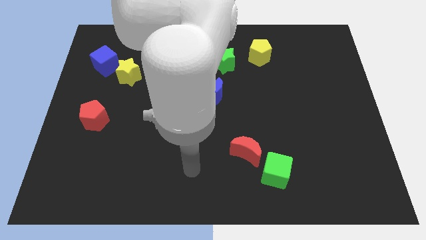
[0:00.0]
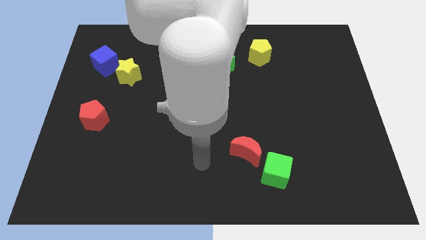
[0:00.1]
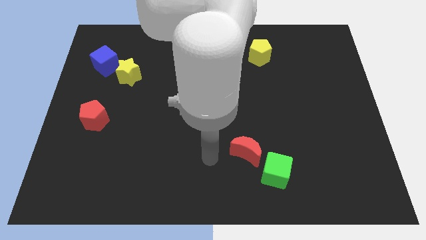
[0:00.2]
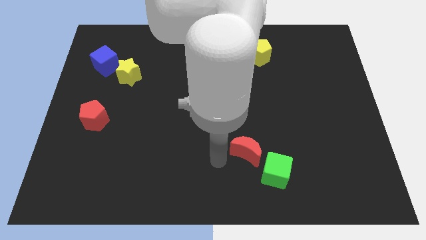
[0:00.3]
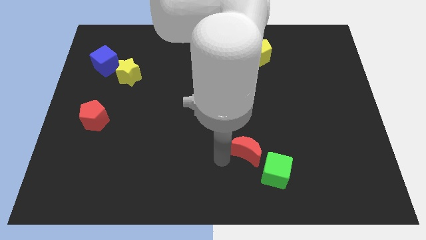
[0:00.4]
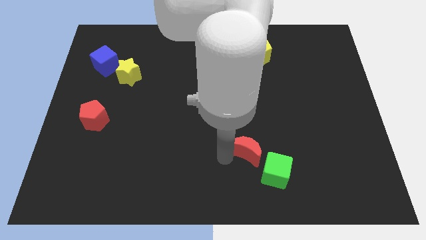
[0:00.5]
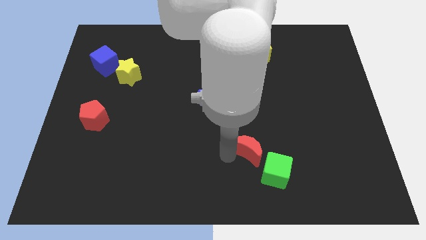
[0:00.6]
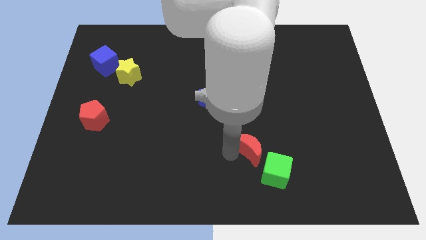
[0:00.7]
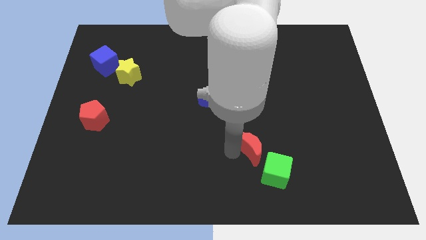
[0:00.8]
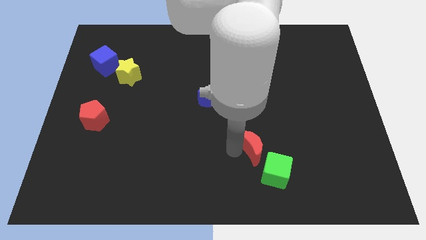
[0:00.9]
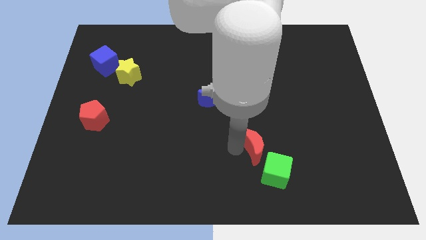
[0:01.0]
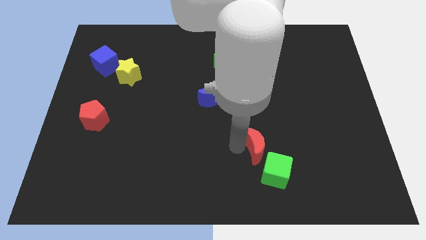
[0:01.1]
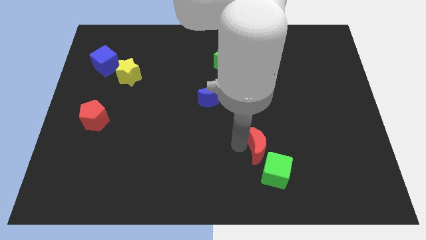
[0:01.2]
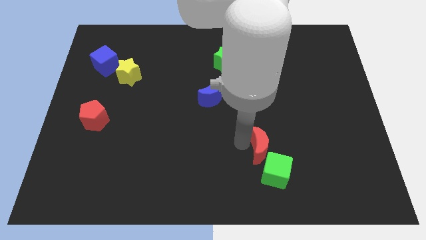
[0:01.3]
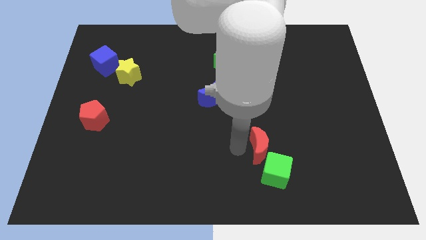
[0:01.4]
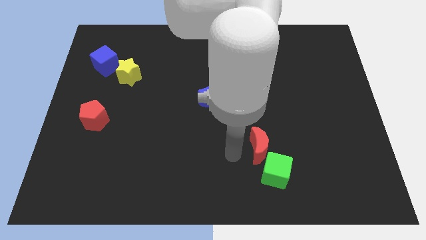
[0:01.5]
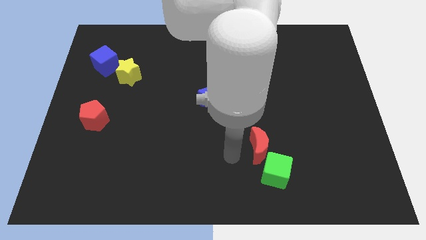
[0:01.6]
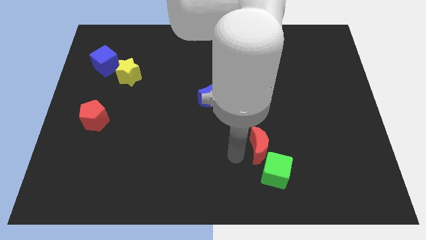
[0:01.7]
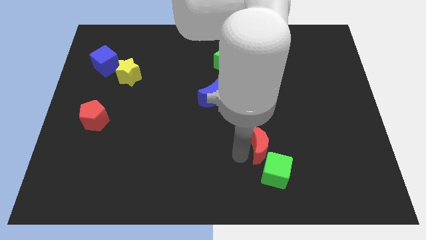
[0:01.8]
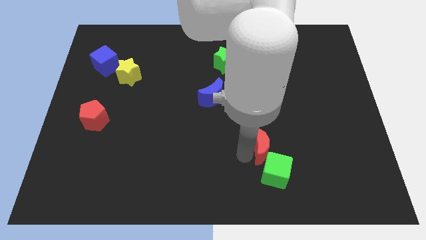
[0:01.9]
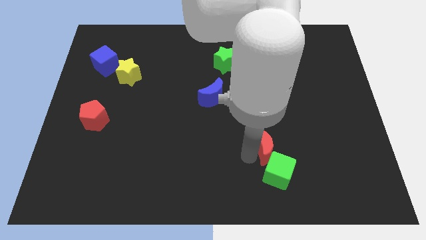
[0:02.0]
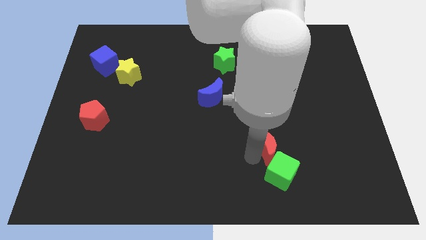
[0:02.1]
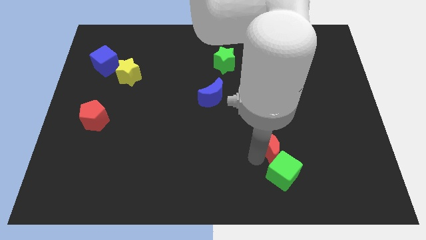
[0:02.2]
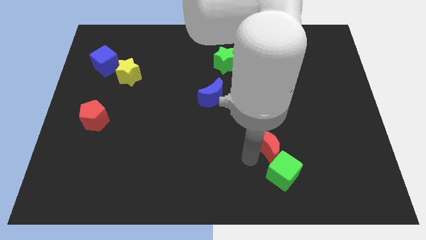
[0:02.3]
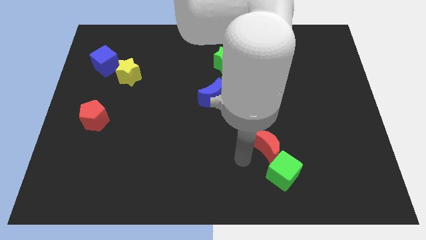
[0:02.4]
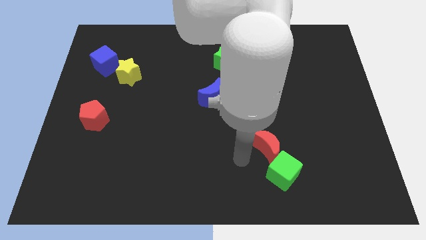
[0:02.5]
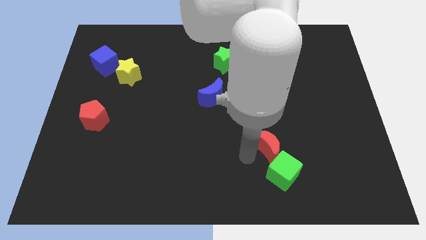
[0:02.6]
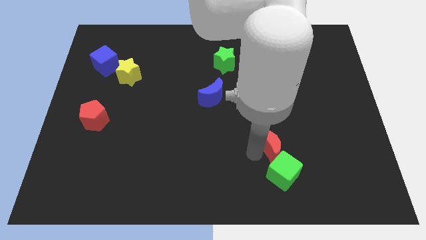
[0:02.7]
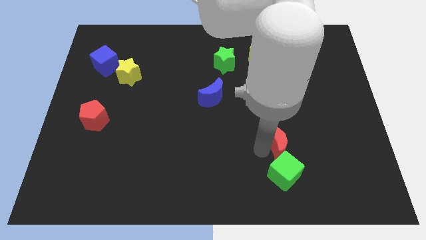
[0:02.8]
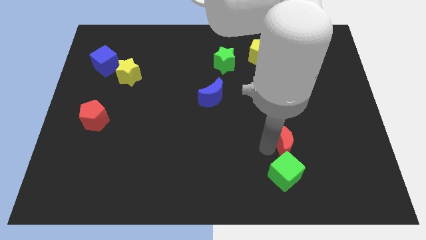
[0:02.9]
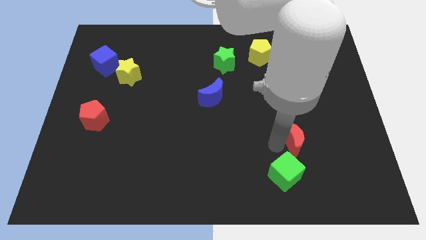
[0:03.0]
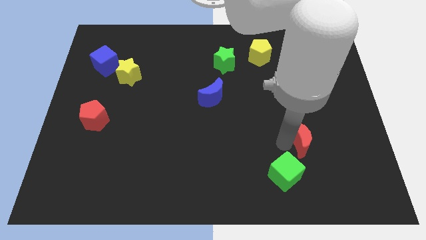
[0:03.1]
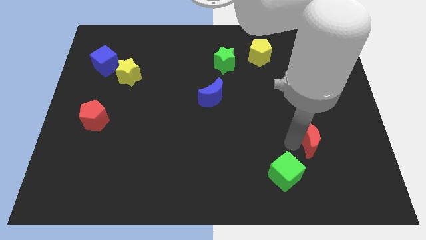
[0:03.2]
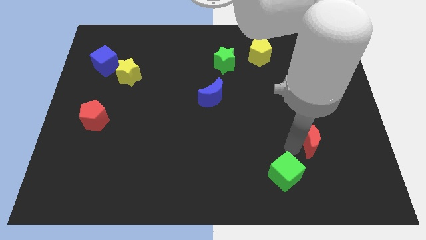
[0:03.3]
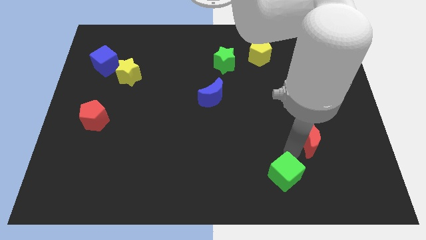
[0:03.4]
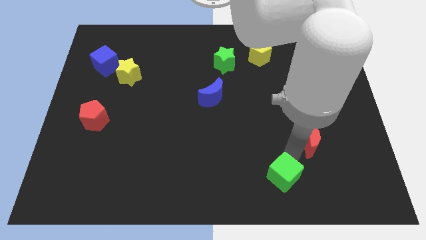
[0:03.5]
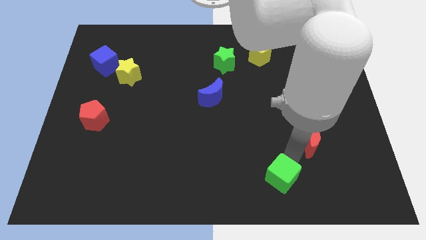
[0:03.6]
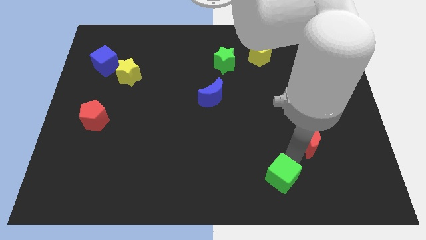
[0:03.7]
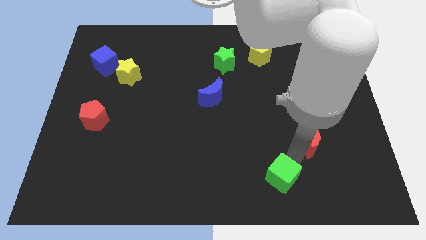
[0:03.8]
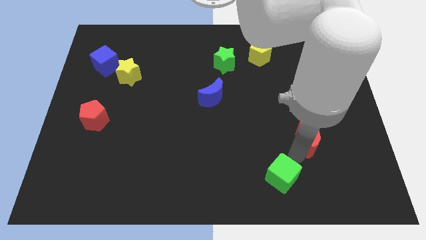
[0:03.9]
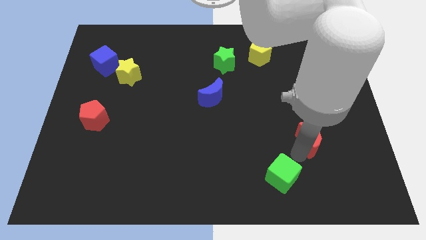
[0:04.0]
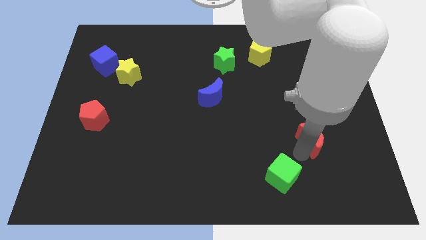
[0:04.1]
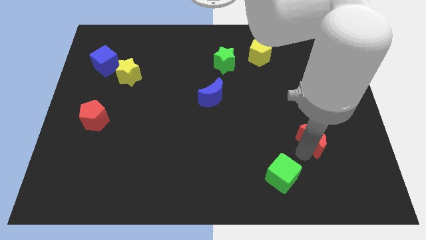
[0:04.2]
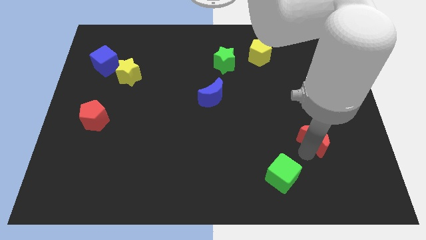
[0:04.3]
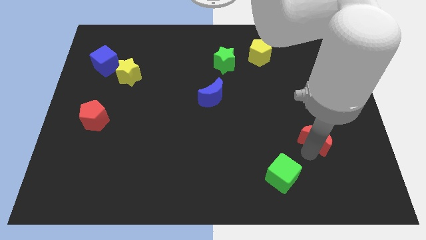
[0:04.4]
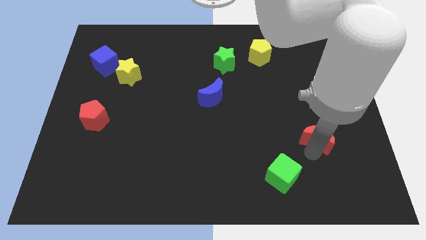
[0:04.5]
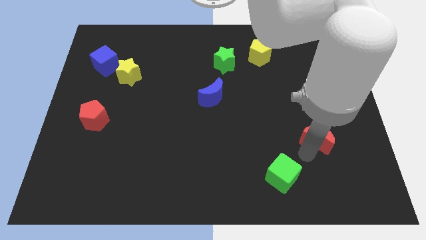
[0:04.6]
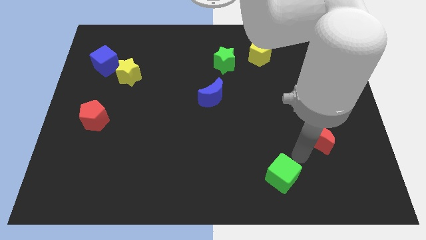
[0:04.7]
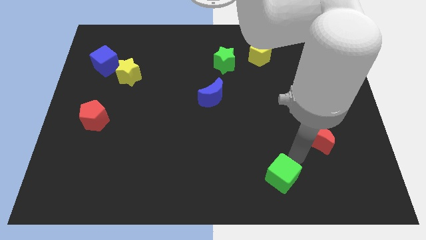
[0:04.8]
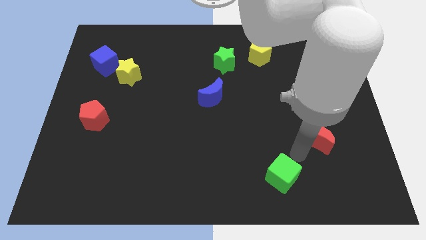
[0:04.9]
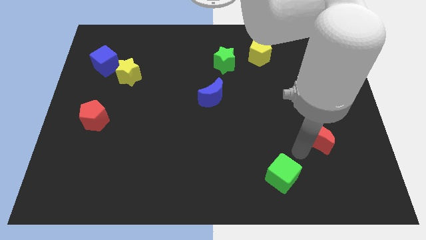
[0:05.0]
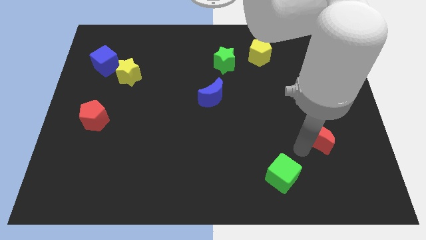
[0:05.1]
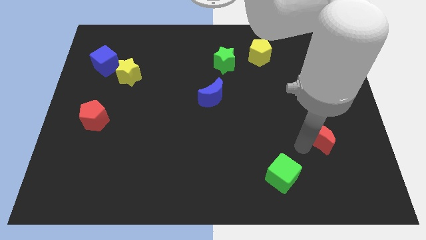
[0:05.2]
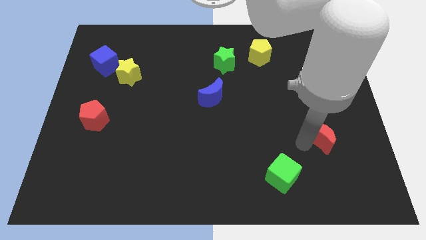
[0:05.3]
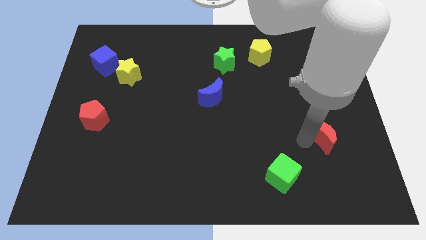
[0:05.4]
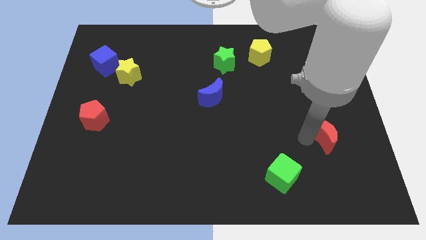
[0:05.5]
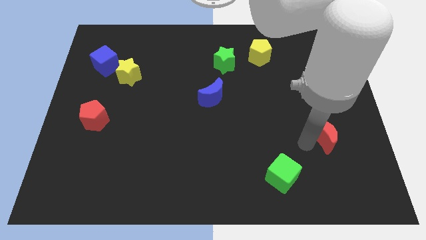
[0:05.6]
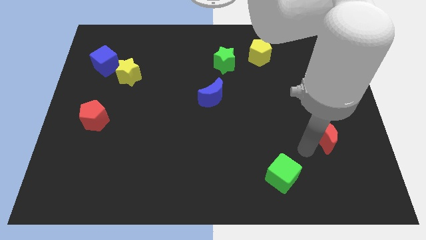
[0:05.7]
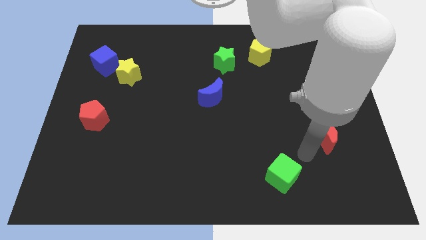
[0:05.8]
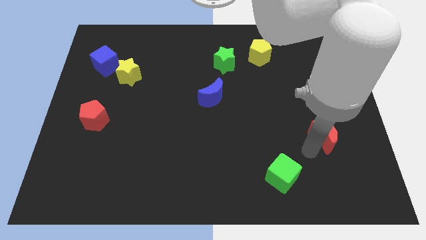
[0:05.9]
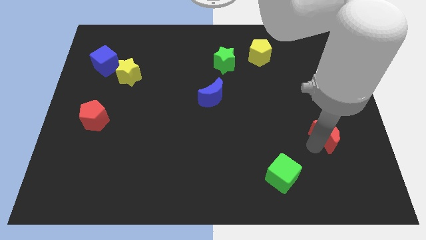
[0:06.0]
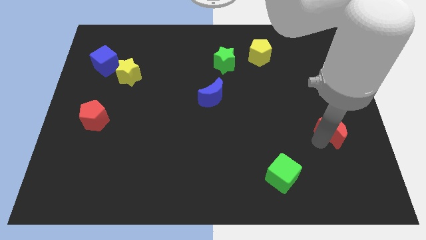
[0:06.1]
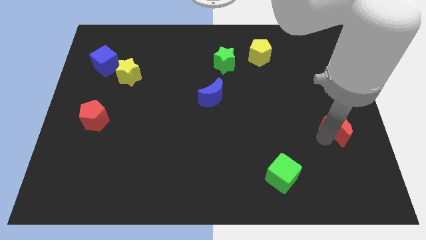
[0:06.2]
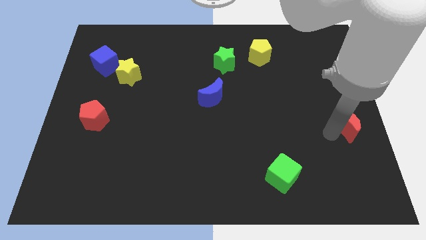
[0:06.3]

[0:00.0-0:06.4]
put the red moon to the right side
